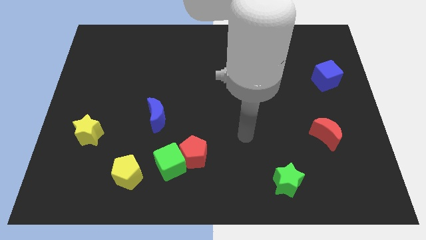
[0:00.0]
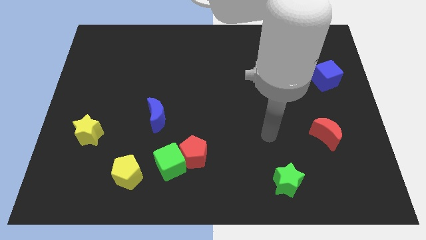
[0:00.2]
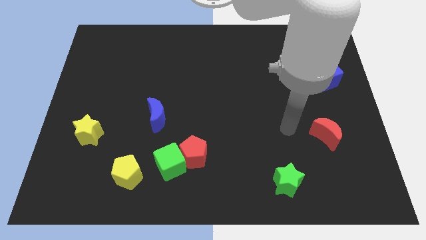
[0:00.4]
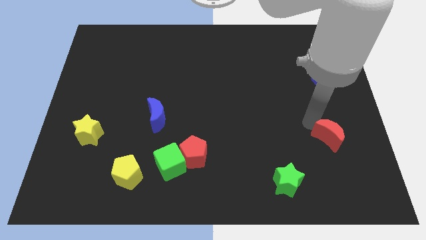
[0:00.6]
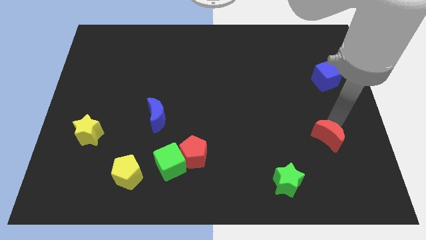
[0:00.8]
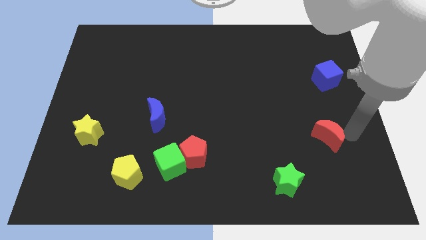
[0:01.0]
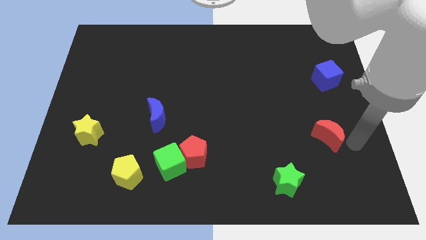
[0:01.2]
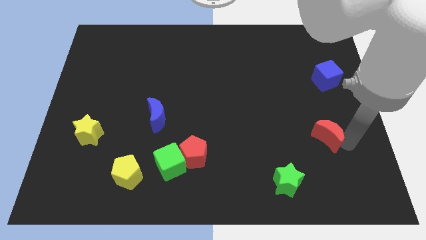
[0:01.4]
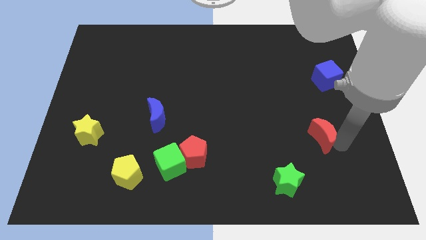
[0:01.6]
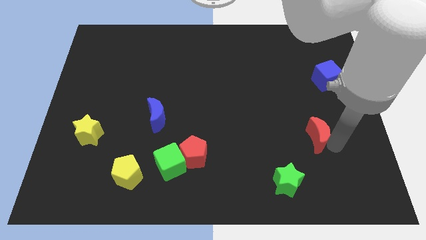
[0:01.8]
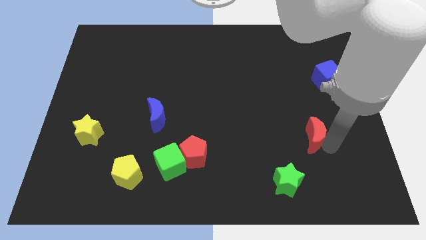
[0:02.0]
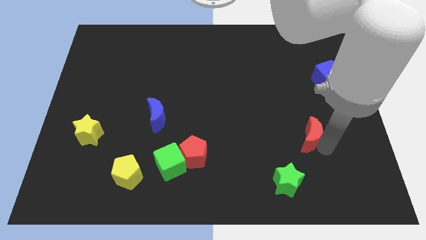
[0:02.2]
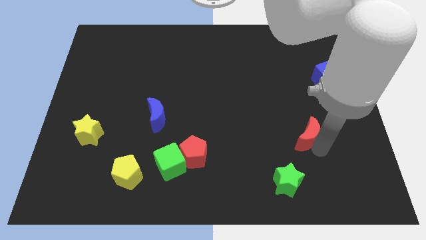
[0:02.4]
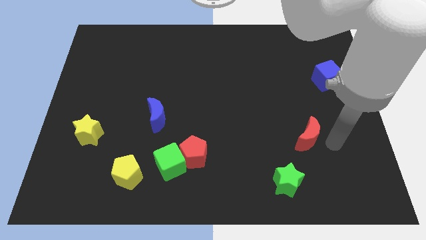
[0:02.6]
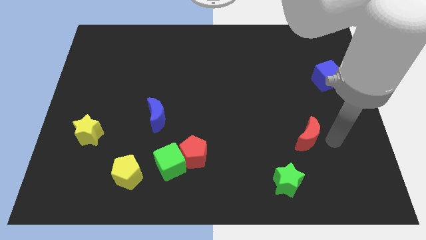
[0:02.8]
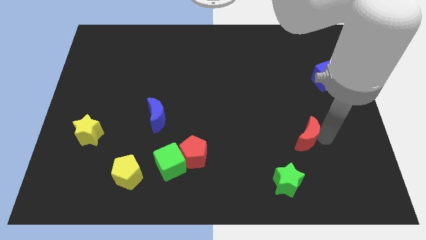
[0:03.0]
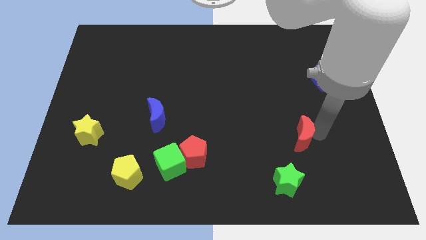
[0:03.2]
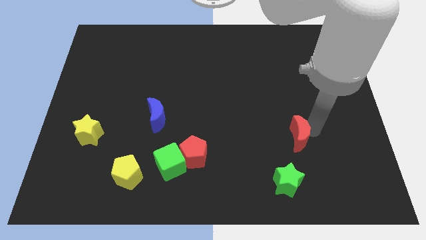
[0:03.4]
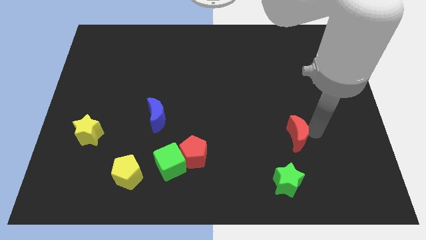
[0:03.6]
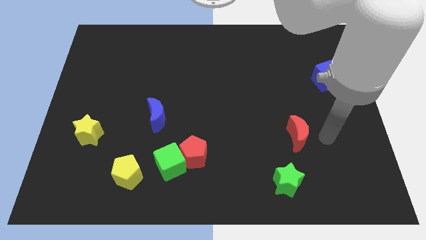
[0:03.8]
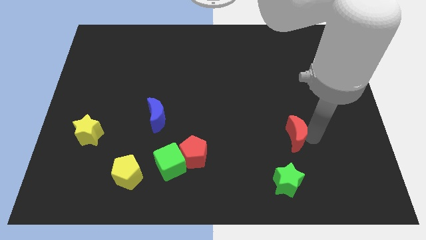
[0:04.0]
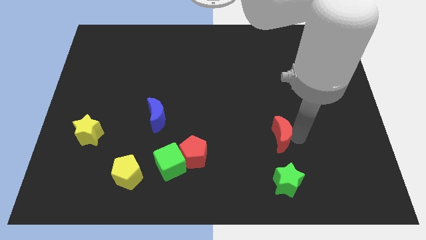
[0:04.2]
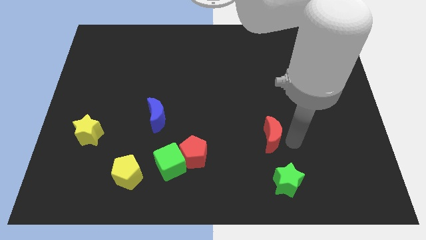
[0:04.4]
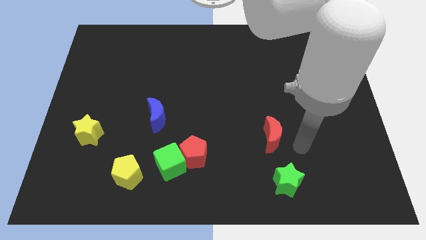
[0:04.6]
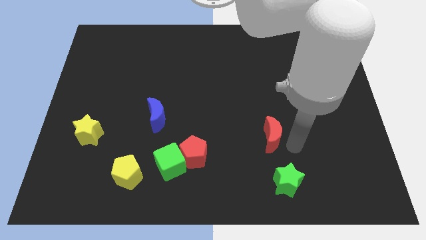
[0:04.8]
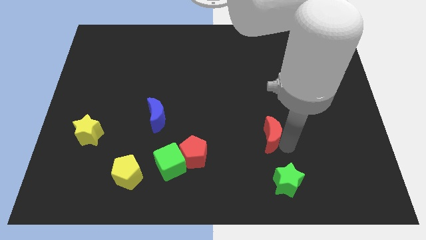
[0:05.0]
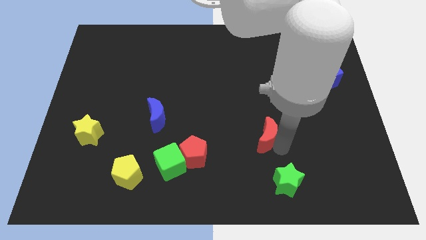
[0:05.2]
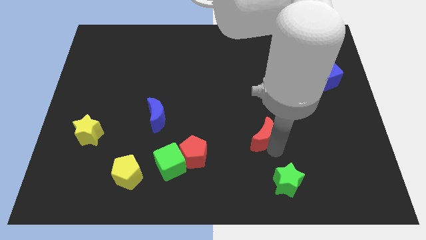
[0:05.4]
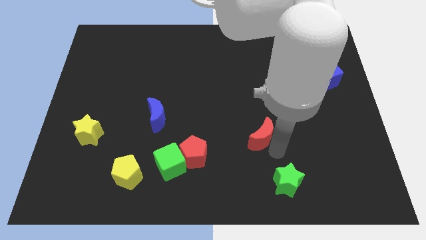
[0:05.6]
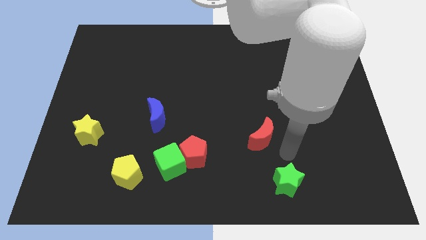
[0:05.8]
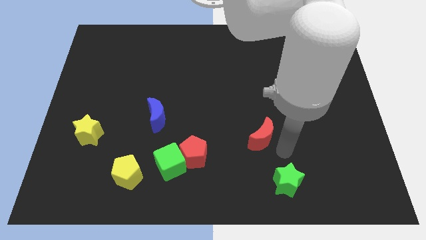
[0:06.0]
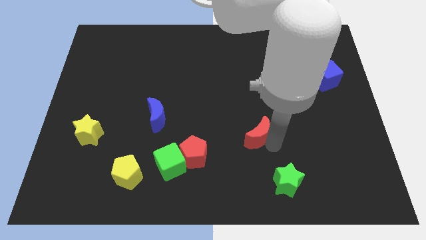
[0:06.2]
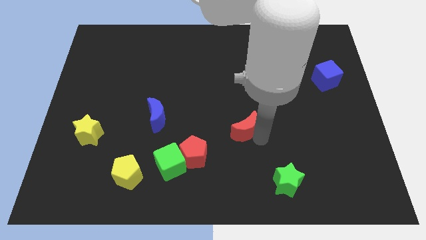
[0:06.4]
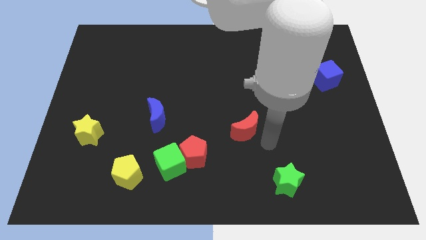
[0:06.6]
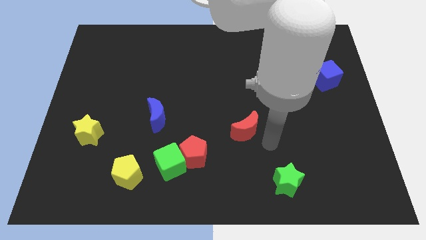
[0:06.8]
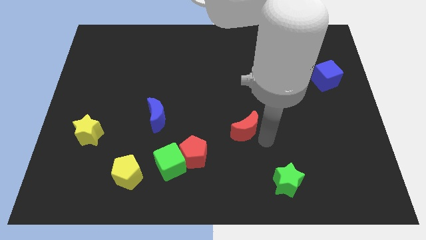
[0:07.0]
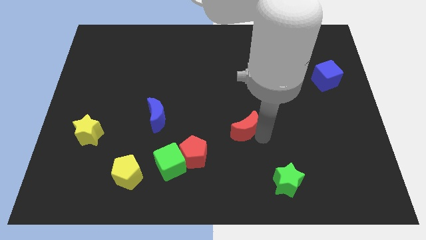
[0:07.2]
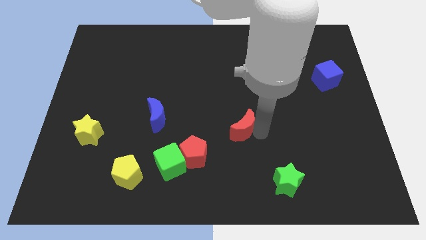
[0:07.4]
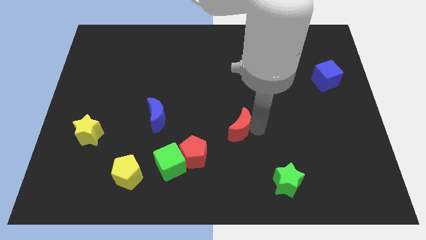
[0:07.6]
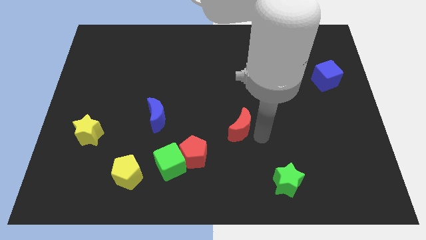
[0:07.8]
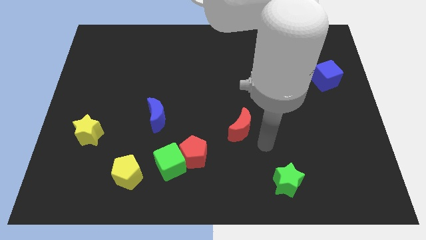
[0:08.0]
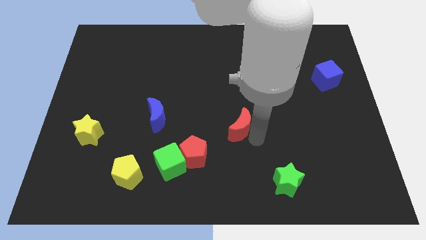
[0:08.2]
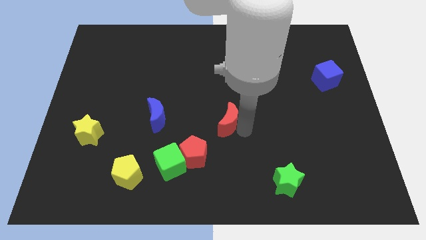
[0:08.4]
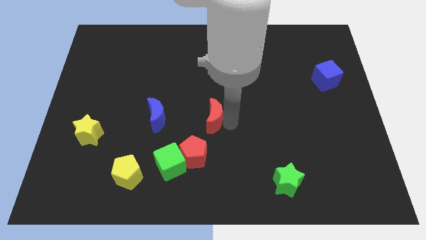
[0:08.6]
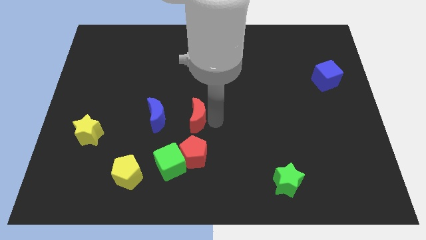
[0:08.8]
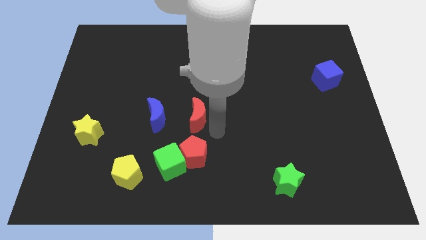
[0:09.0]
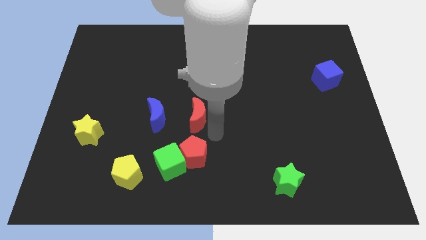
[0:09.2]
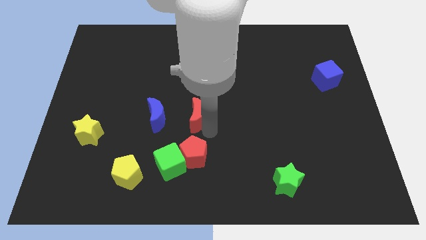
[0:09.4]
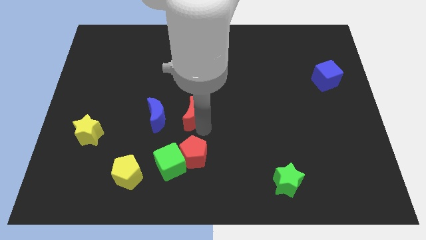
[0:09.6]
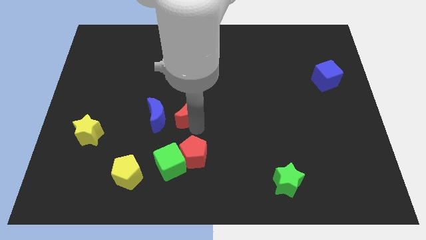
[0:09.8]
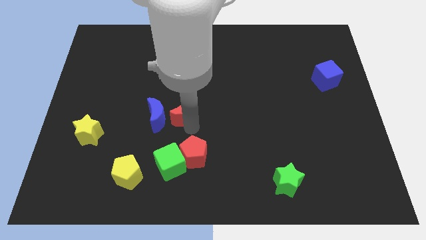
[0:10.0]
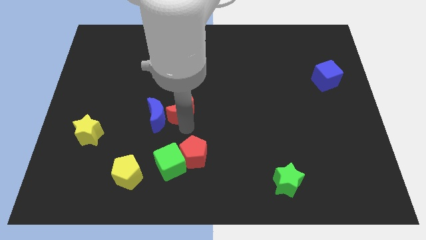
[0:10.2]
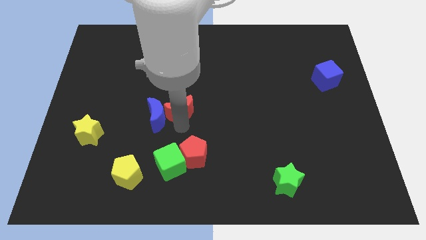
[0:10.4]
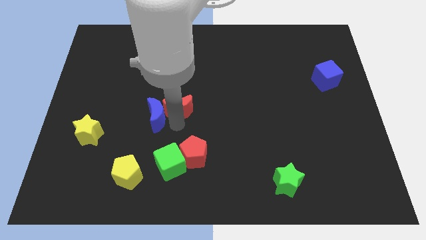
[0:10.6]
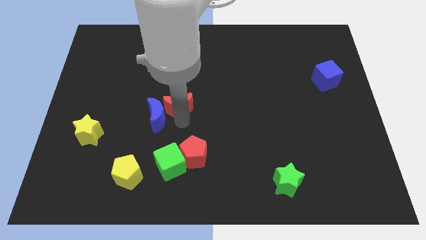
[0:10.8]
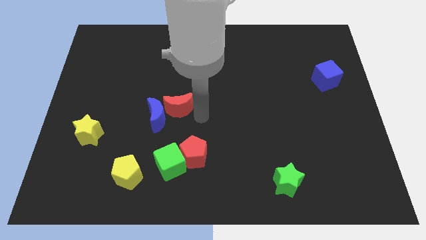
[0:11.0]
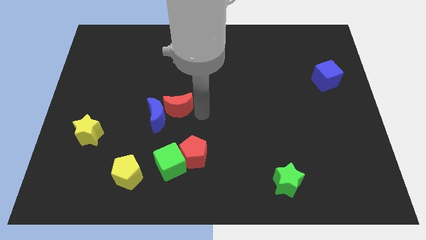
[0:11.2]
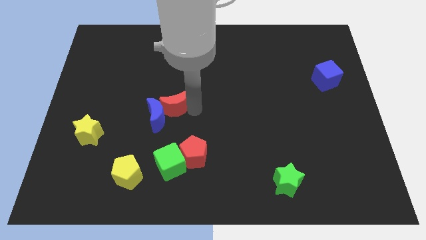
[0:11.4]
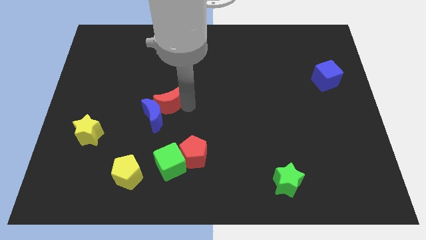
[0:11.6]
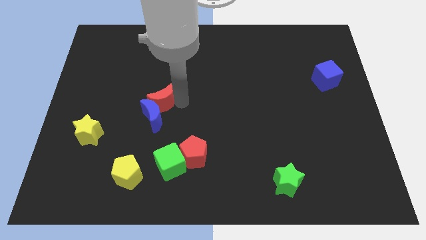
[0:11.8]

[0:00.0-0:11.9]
put the red moon to the top left of the blue moon

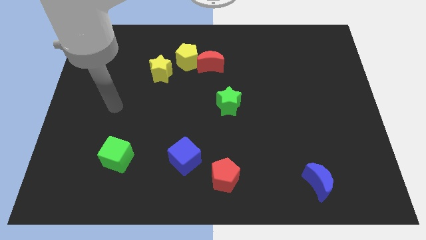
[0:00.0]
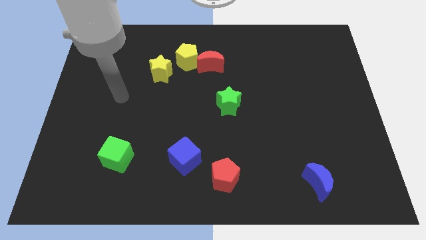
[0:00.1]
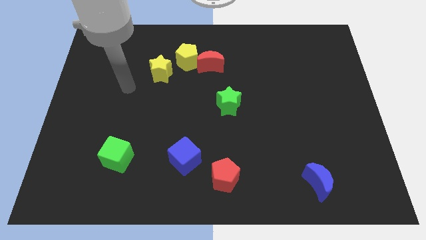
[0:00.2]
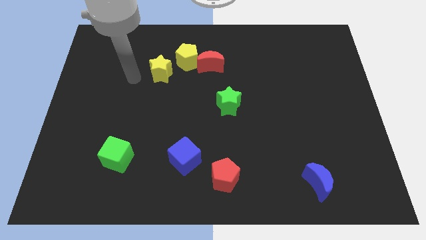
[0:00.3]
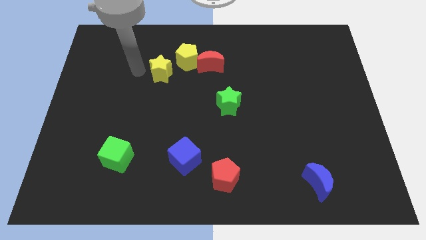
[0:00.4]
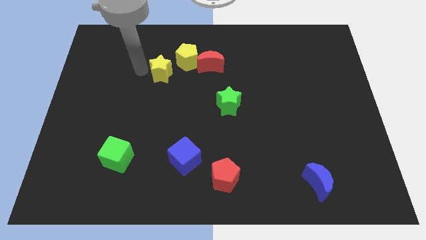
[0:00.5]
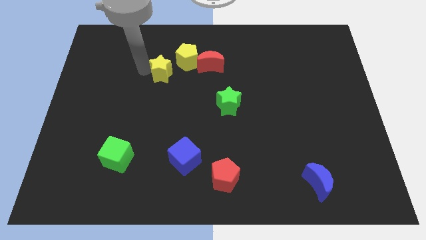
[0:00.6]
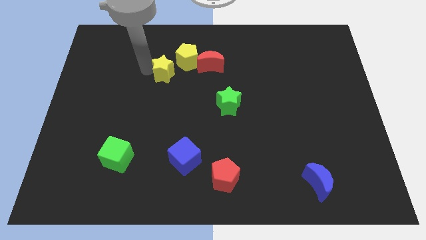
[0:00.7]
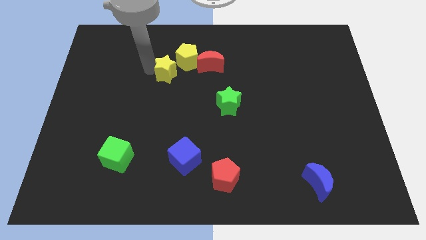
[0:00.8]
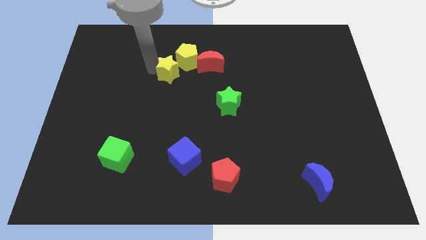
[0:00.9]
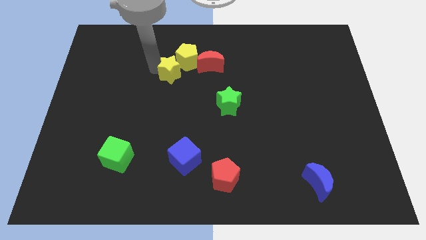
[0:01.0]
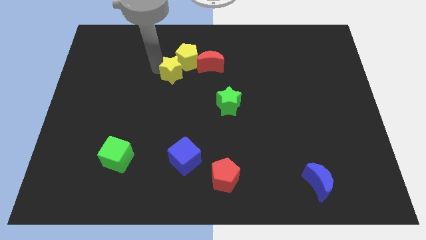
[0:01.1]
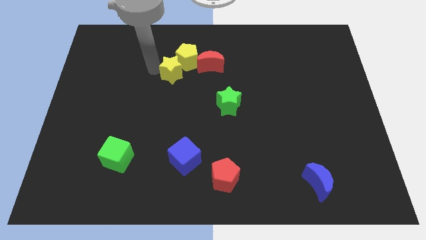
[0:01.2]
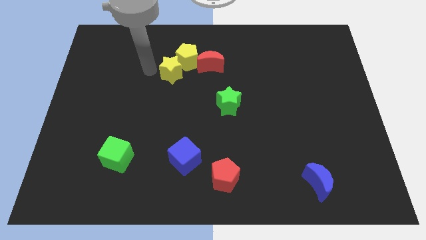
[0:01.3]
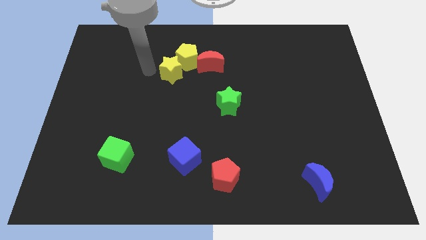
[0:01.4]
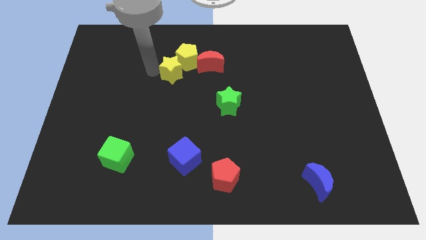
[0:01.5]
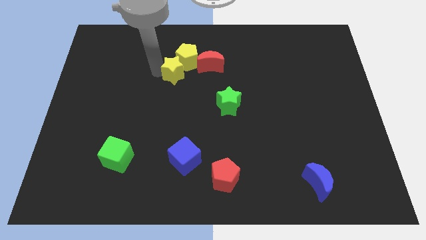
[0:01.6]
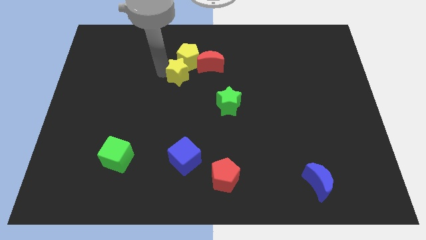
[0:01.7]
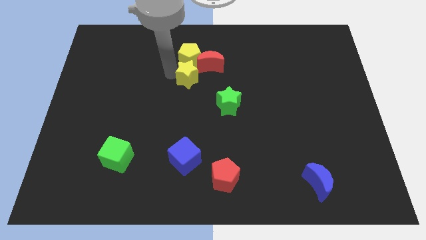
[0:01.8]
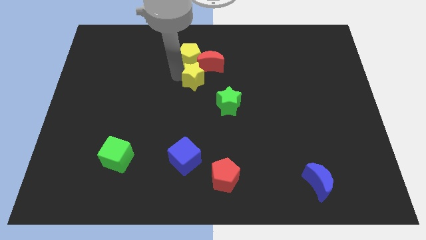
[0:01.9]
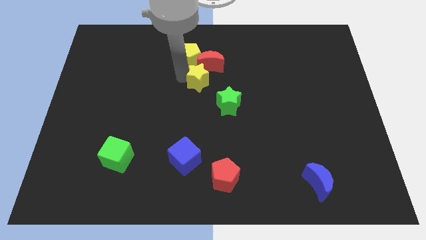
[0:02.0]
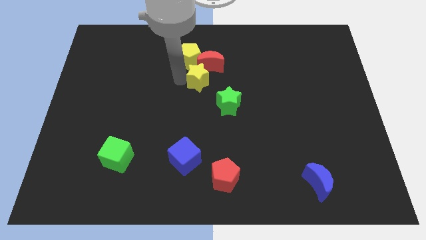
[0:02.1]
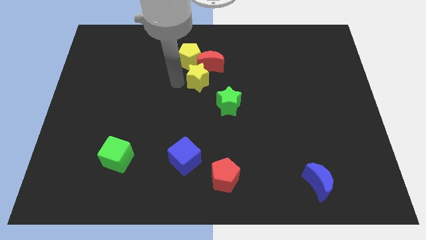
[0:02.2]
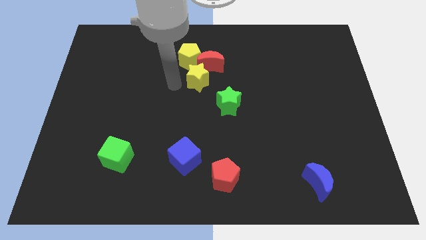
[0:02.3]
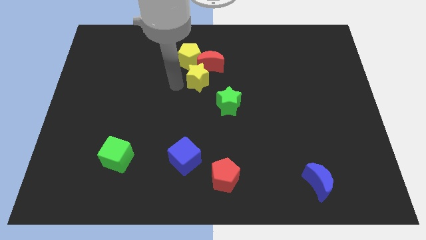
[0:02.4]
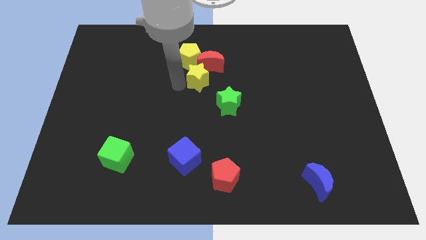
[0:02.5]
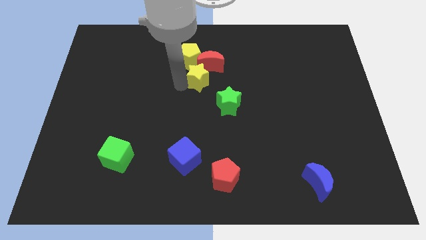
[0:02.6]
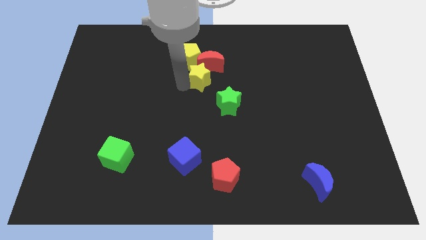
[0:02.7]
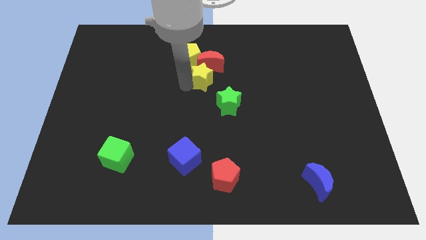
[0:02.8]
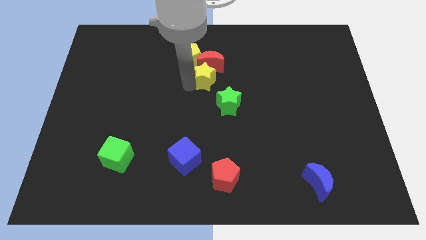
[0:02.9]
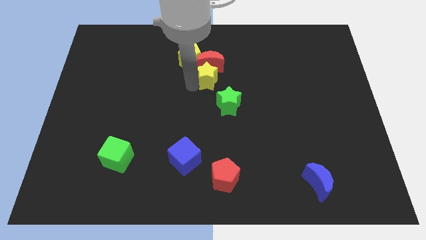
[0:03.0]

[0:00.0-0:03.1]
put the yellow star above the green star
